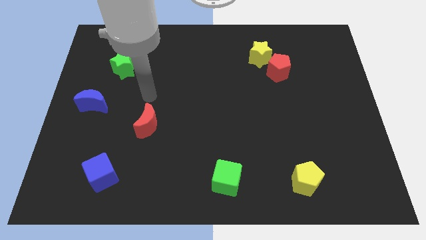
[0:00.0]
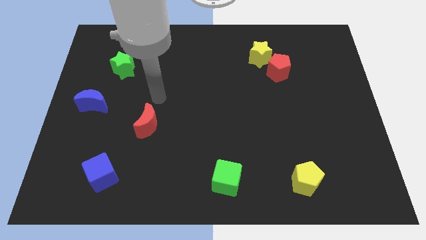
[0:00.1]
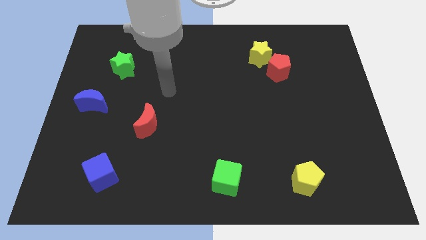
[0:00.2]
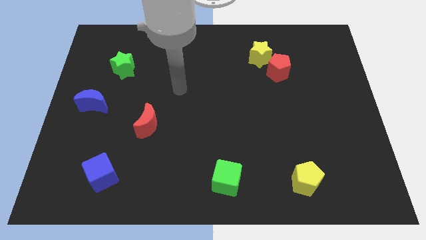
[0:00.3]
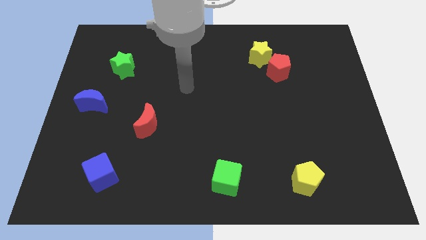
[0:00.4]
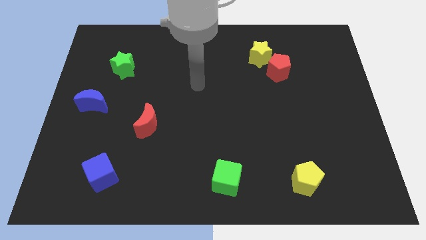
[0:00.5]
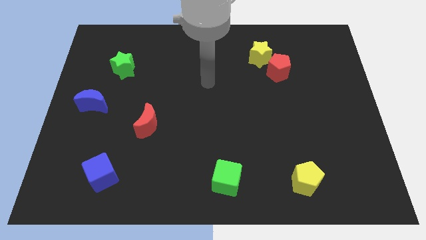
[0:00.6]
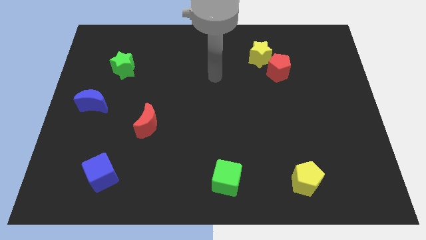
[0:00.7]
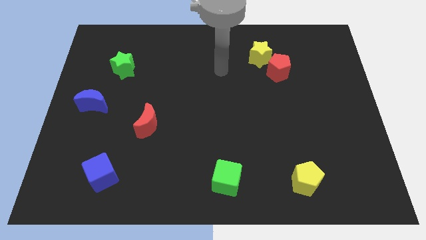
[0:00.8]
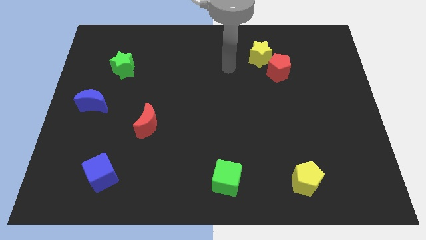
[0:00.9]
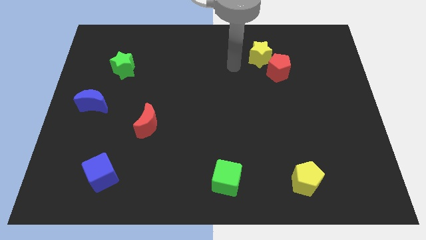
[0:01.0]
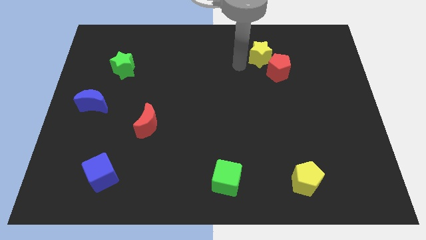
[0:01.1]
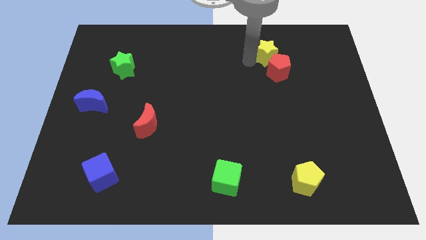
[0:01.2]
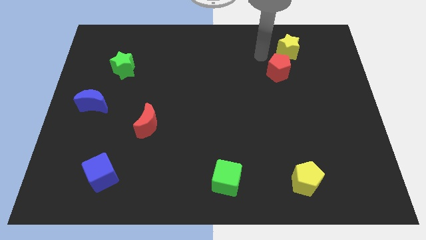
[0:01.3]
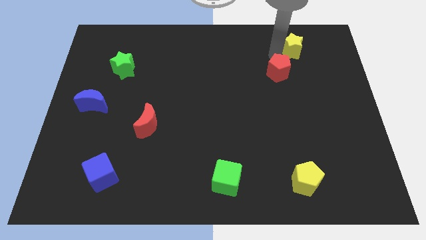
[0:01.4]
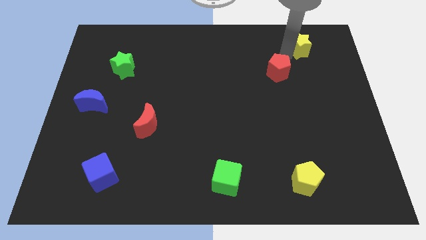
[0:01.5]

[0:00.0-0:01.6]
move the red pentagon away from the yellow star

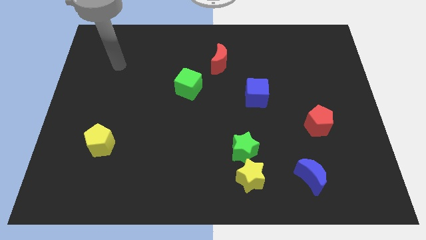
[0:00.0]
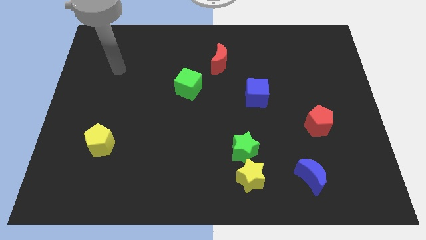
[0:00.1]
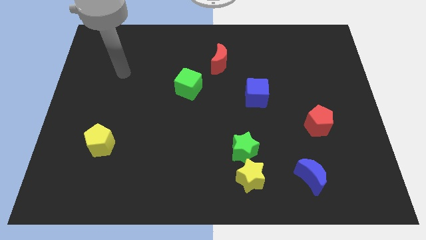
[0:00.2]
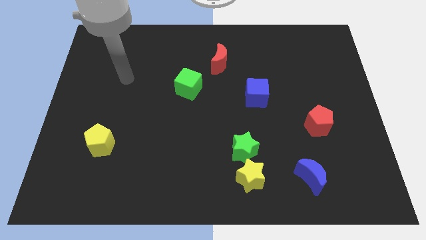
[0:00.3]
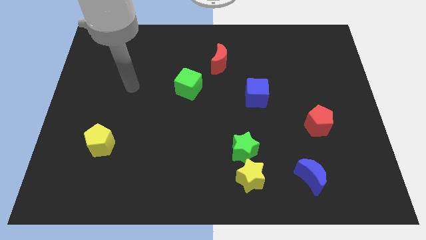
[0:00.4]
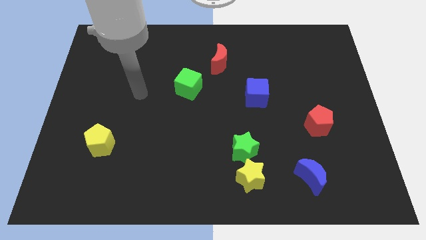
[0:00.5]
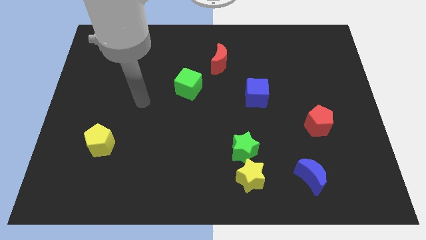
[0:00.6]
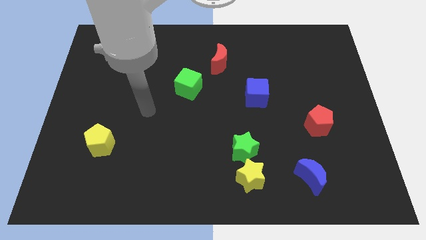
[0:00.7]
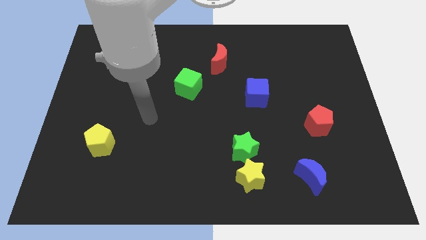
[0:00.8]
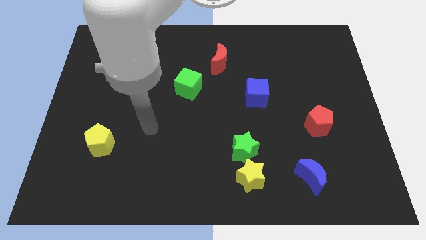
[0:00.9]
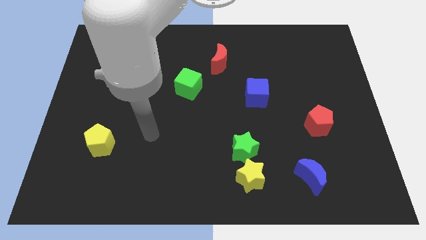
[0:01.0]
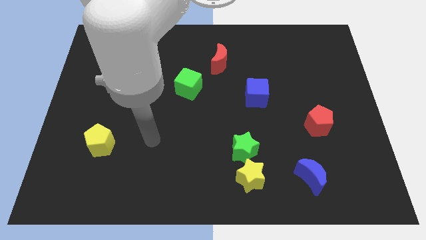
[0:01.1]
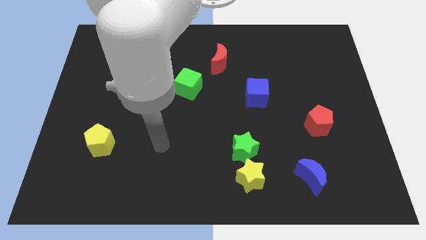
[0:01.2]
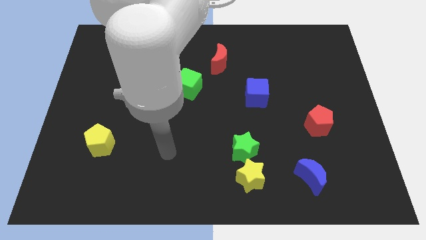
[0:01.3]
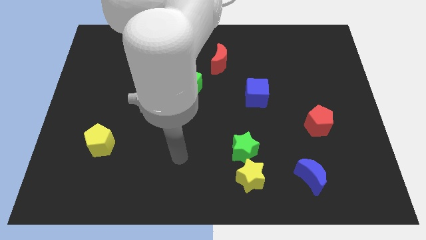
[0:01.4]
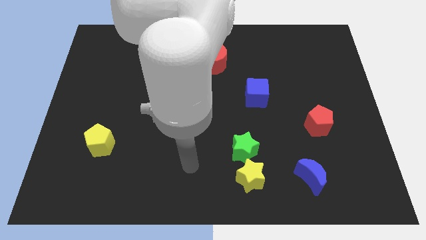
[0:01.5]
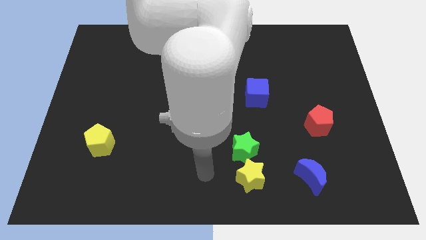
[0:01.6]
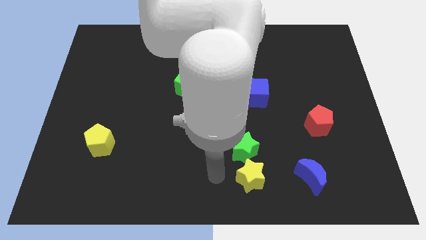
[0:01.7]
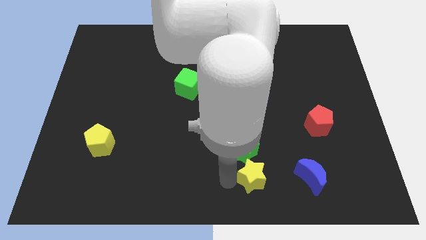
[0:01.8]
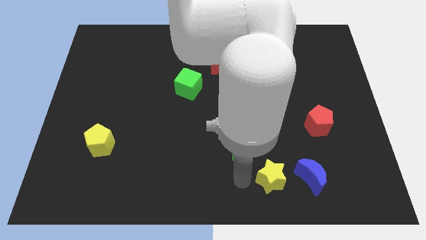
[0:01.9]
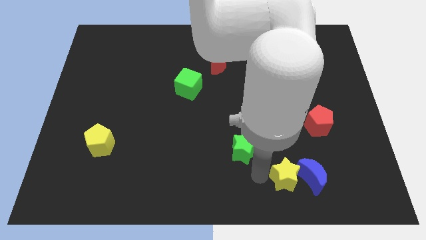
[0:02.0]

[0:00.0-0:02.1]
pull the green star apart from the yellow star

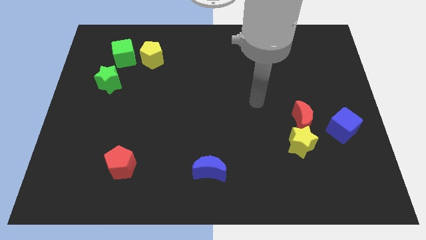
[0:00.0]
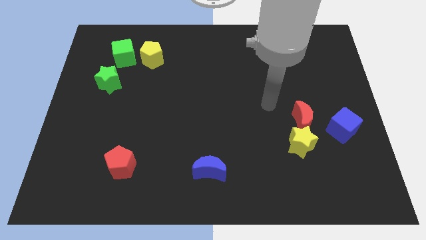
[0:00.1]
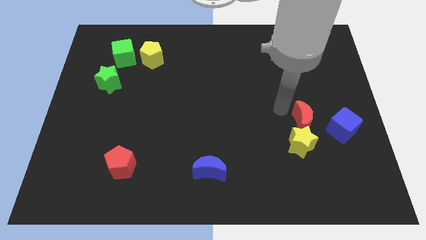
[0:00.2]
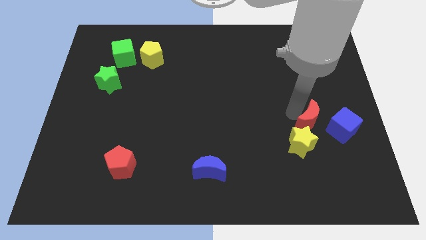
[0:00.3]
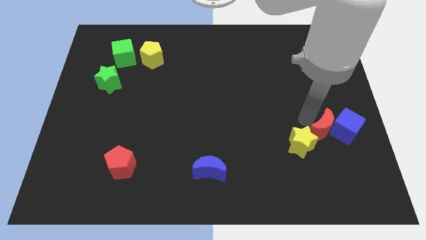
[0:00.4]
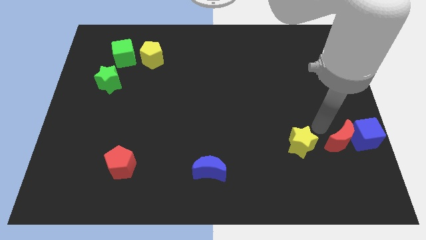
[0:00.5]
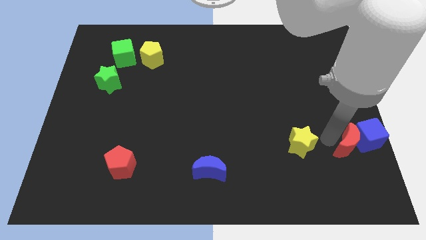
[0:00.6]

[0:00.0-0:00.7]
move the yellow star away from the red moon

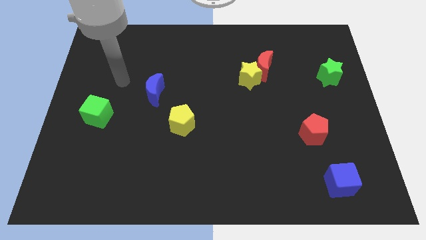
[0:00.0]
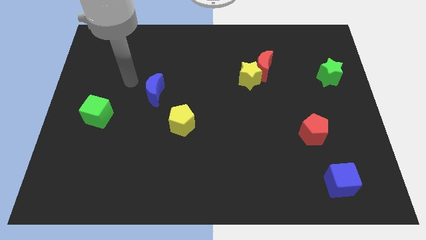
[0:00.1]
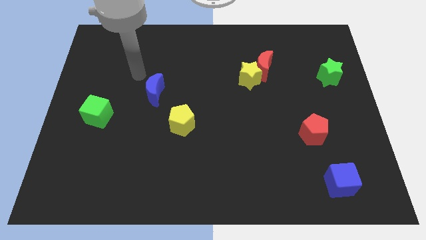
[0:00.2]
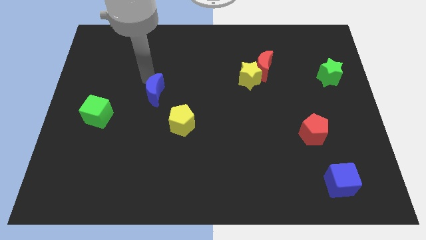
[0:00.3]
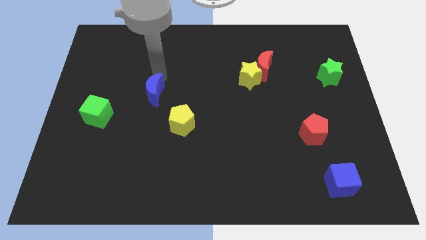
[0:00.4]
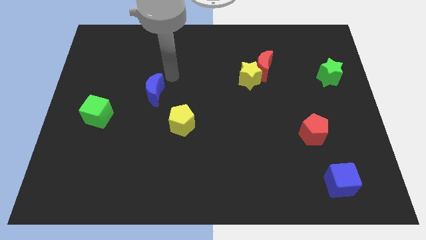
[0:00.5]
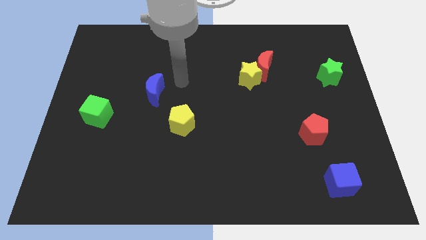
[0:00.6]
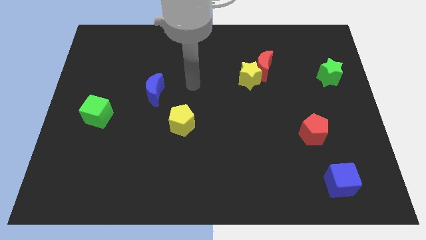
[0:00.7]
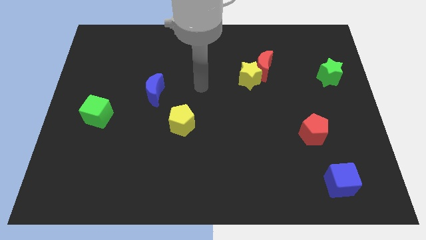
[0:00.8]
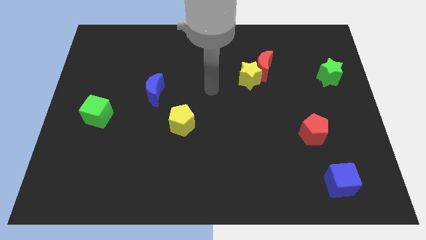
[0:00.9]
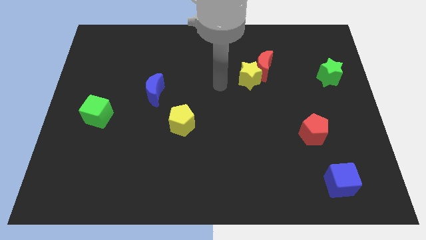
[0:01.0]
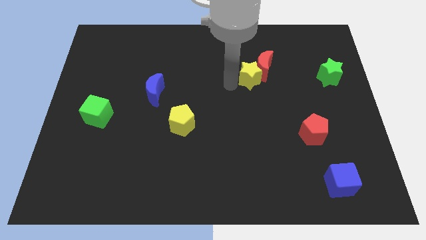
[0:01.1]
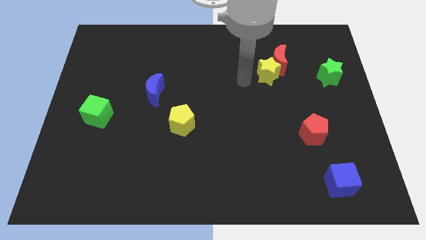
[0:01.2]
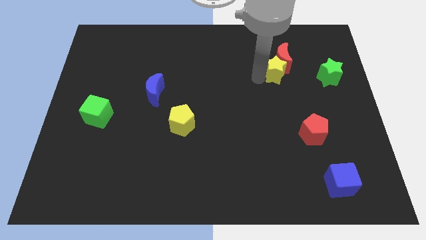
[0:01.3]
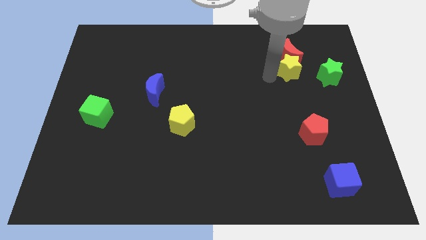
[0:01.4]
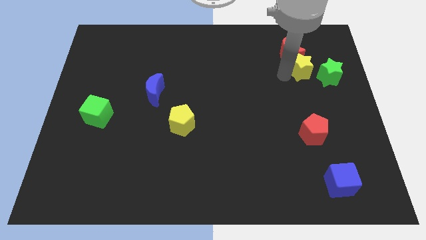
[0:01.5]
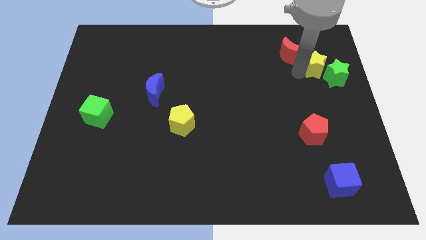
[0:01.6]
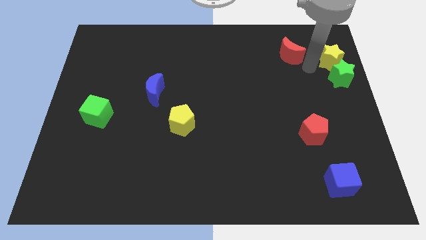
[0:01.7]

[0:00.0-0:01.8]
pull the red moon apart from the yellow star

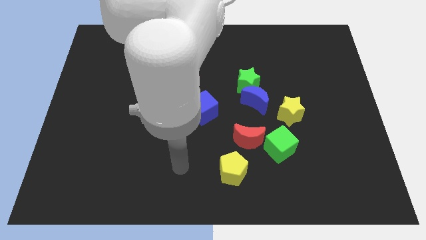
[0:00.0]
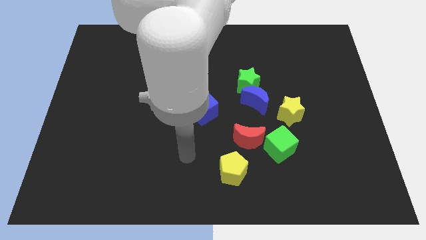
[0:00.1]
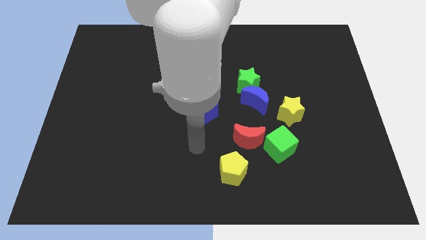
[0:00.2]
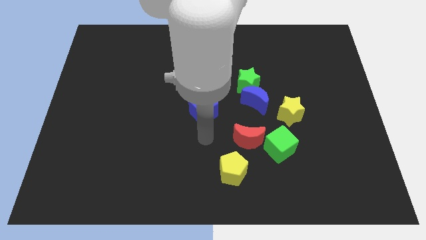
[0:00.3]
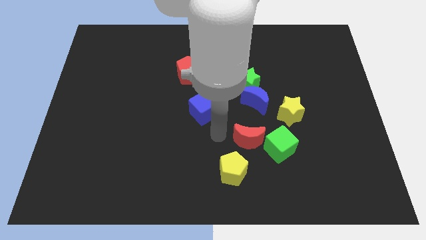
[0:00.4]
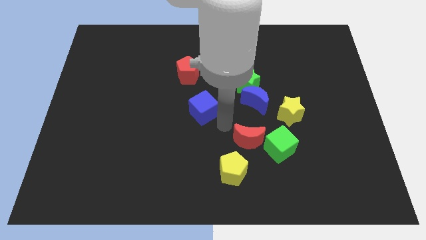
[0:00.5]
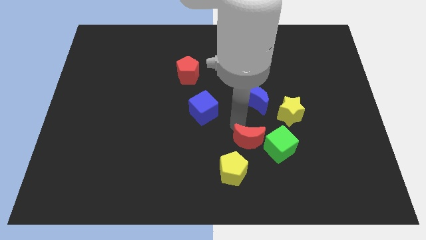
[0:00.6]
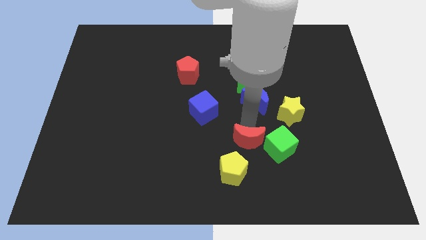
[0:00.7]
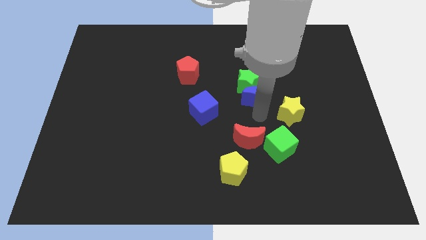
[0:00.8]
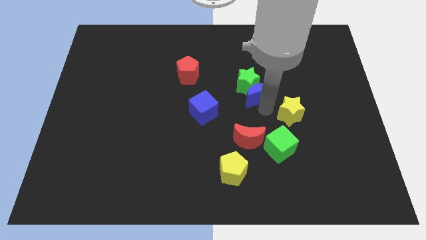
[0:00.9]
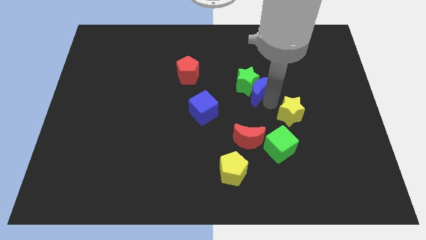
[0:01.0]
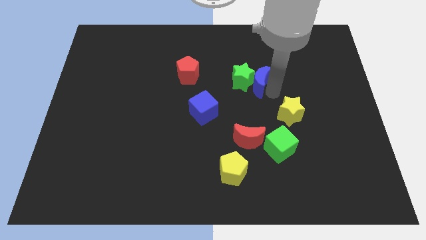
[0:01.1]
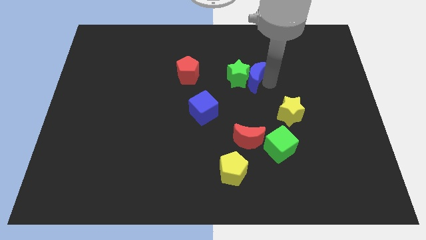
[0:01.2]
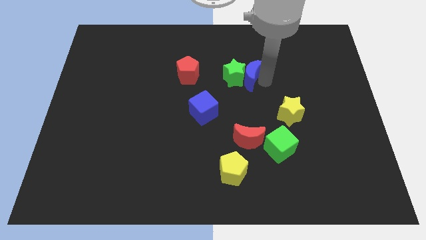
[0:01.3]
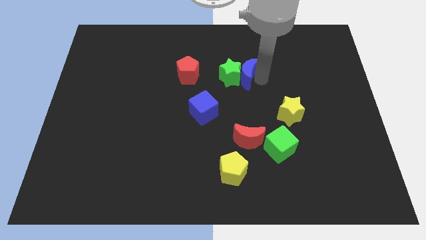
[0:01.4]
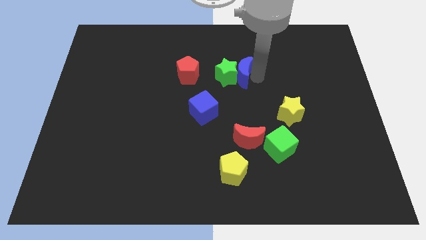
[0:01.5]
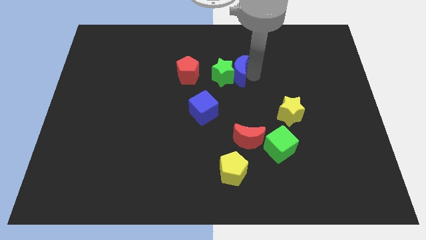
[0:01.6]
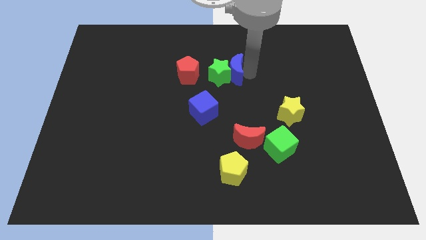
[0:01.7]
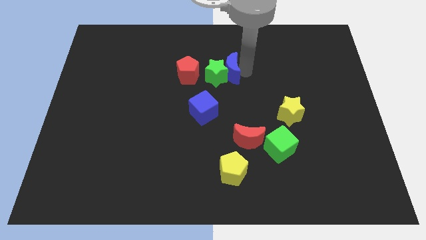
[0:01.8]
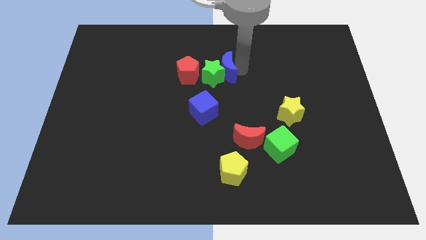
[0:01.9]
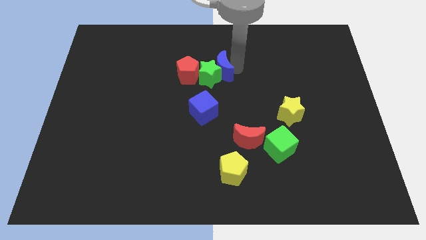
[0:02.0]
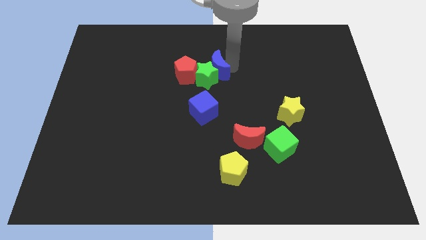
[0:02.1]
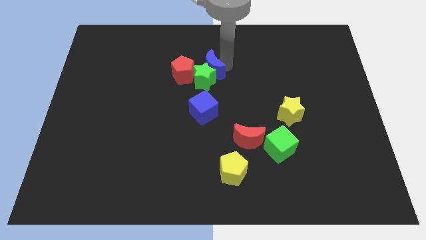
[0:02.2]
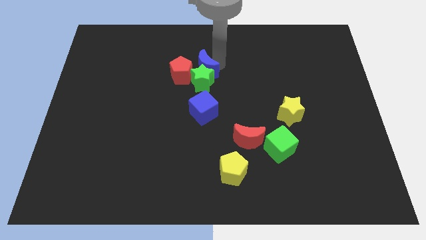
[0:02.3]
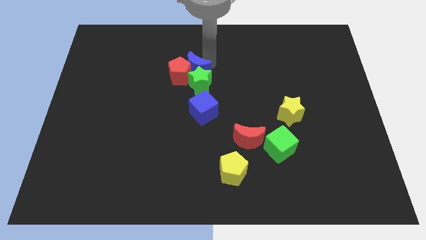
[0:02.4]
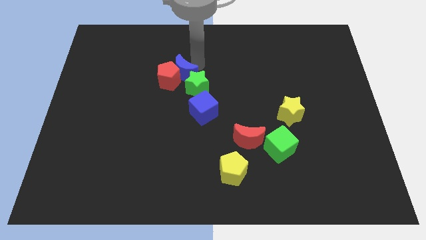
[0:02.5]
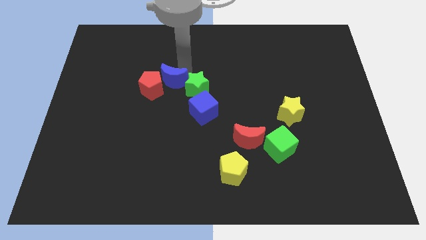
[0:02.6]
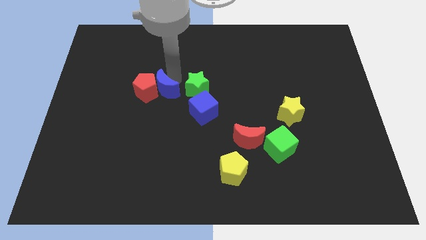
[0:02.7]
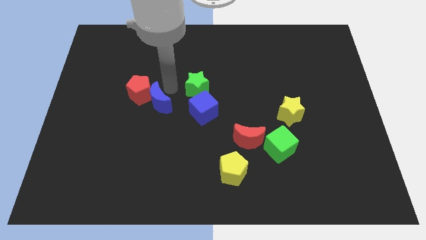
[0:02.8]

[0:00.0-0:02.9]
move the green star away from the blue moon

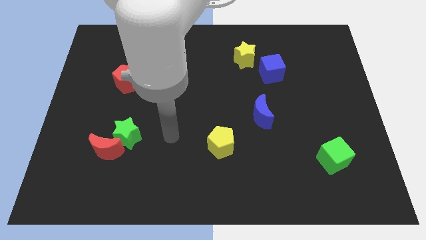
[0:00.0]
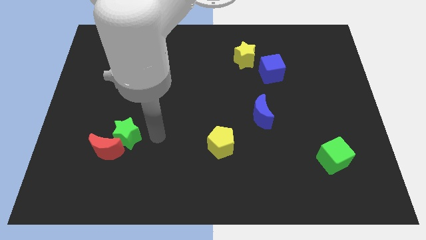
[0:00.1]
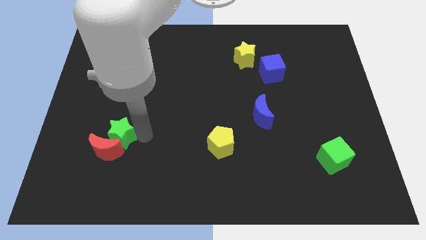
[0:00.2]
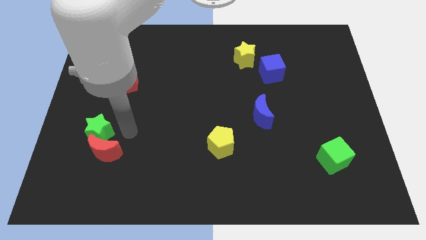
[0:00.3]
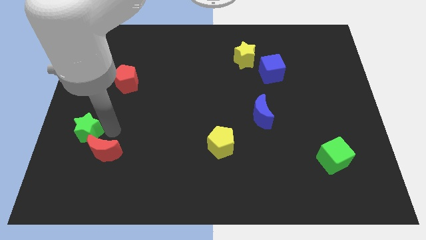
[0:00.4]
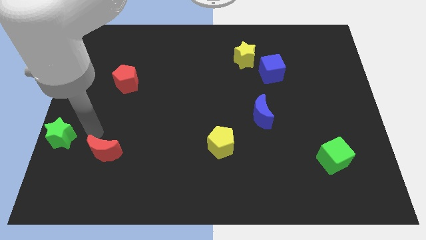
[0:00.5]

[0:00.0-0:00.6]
separate the red moon from the green star
